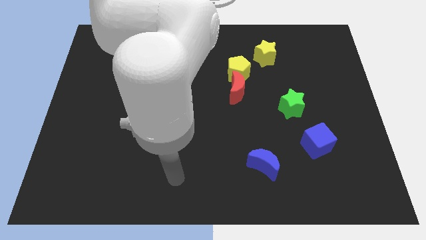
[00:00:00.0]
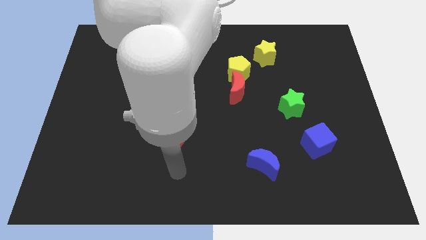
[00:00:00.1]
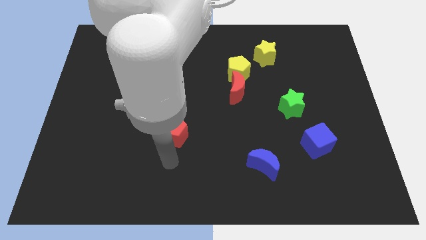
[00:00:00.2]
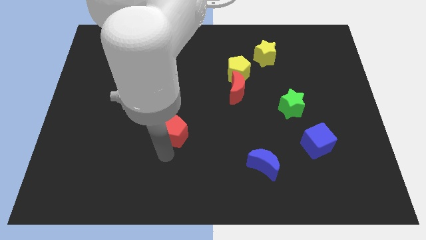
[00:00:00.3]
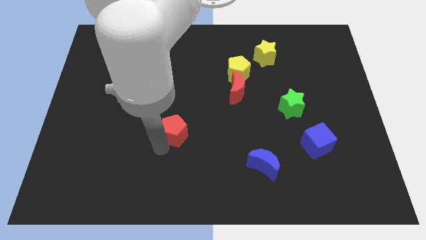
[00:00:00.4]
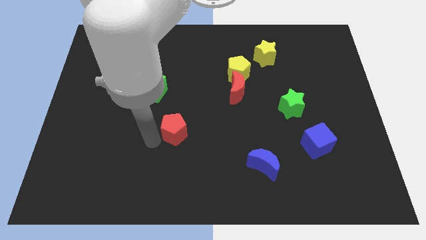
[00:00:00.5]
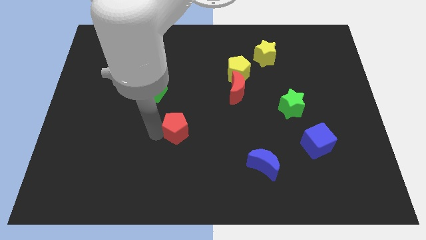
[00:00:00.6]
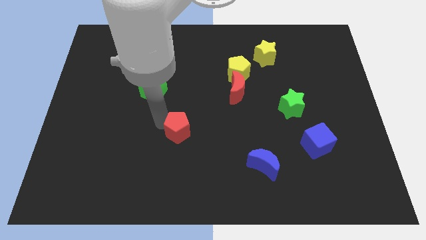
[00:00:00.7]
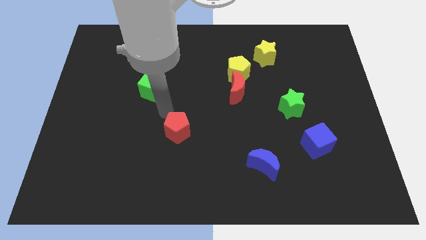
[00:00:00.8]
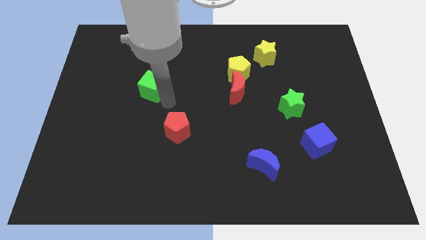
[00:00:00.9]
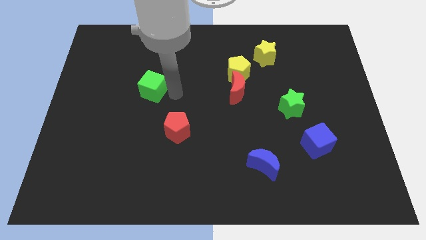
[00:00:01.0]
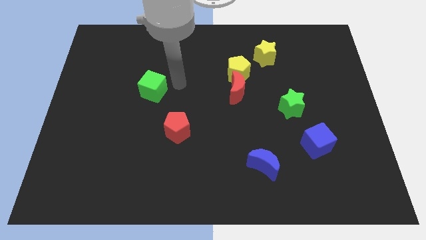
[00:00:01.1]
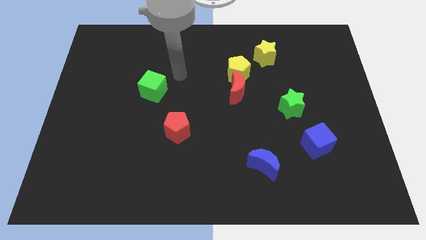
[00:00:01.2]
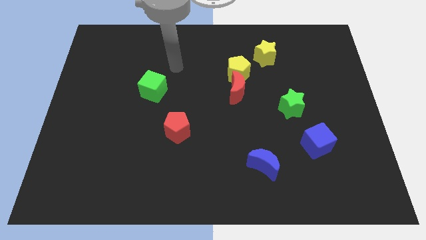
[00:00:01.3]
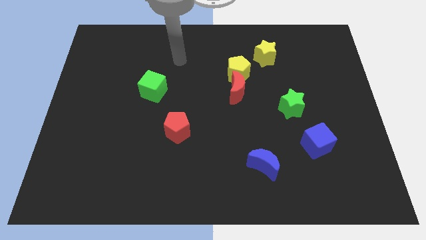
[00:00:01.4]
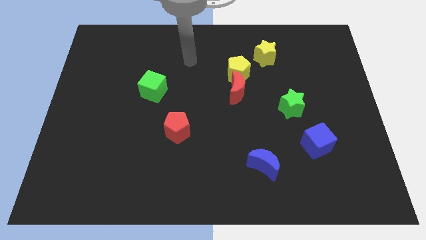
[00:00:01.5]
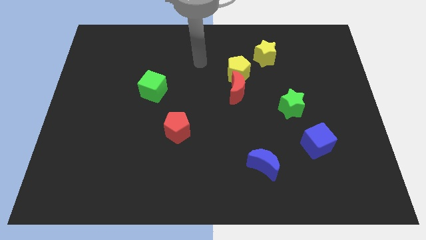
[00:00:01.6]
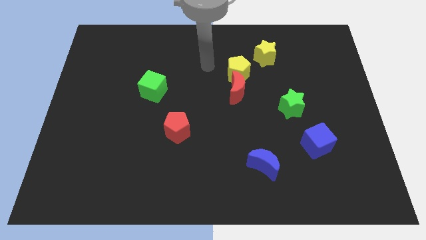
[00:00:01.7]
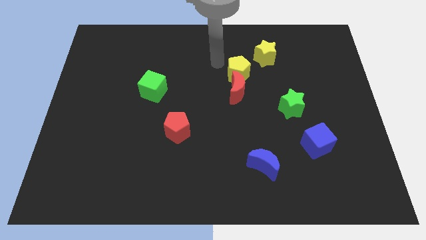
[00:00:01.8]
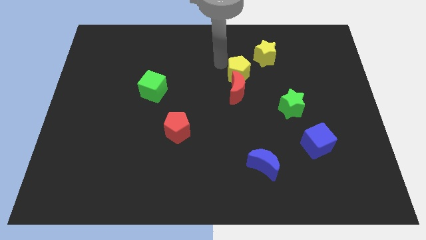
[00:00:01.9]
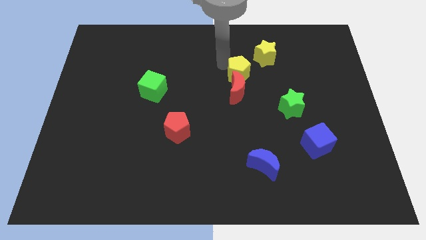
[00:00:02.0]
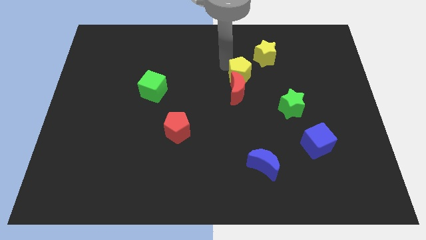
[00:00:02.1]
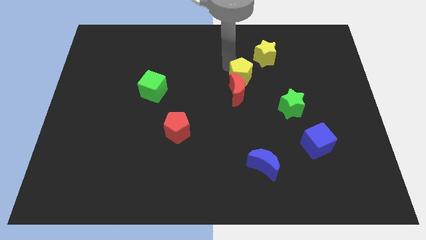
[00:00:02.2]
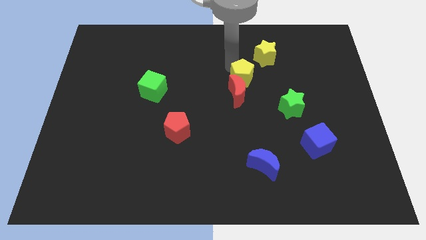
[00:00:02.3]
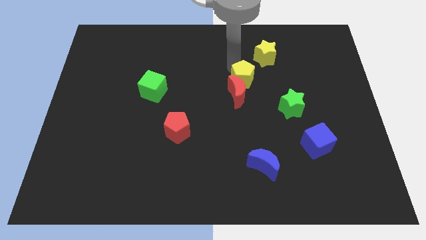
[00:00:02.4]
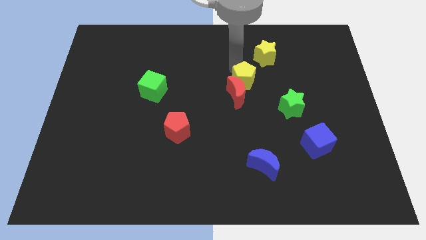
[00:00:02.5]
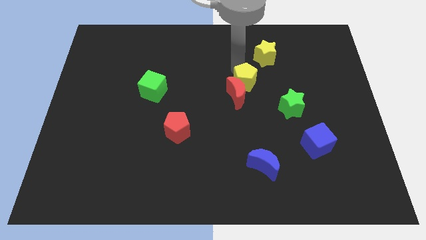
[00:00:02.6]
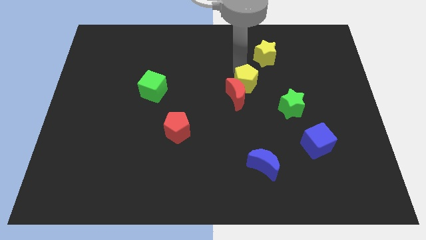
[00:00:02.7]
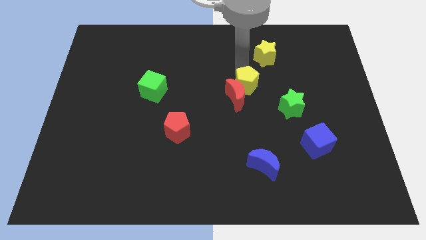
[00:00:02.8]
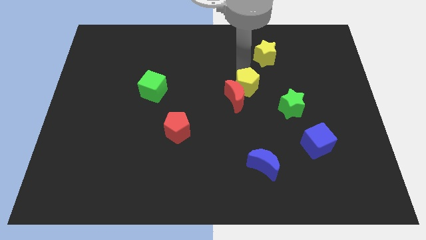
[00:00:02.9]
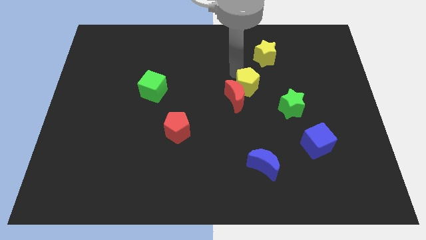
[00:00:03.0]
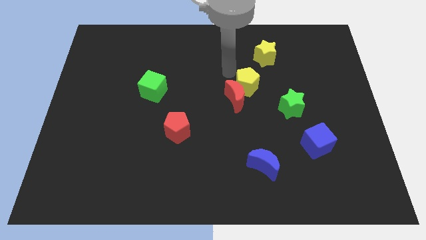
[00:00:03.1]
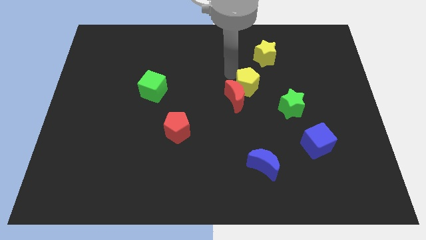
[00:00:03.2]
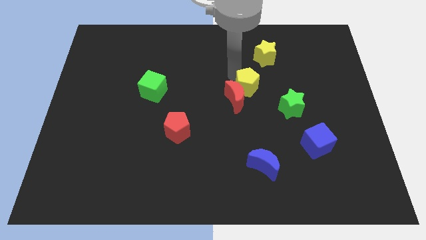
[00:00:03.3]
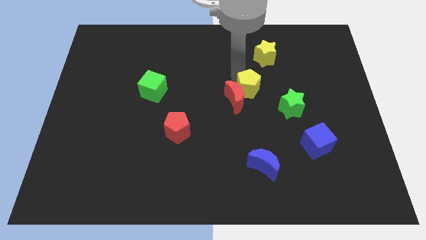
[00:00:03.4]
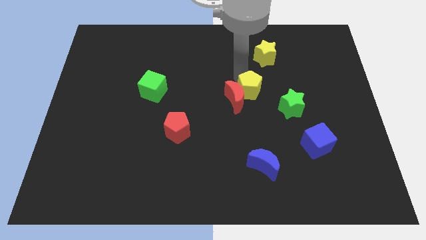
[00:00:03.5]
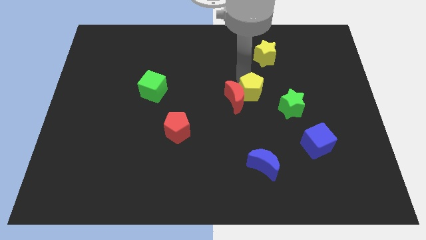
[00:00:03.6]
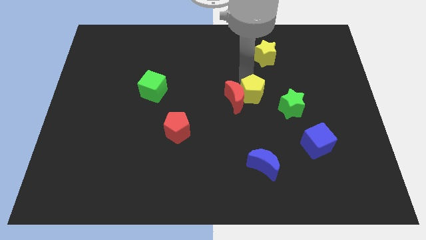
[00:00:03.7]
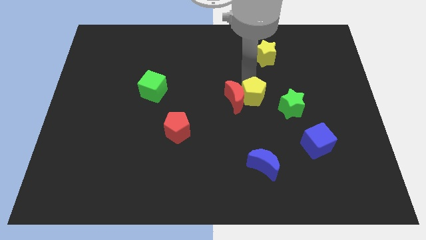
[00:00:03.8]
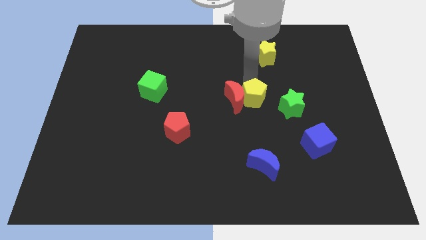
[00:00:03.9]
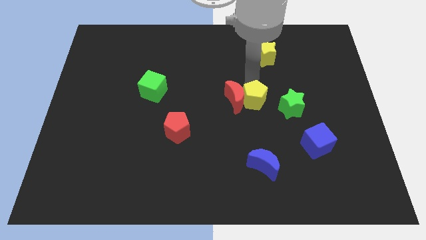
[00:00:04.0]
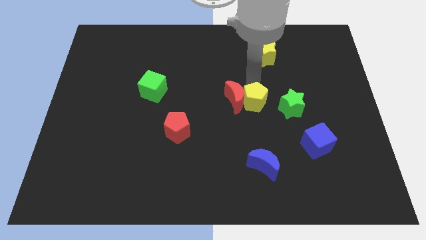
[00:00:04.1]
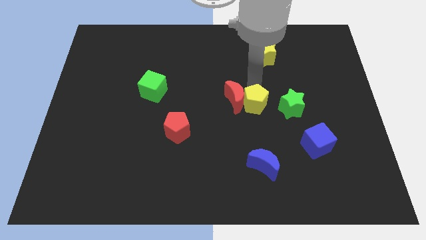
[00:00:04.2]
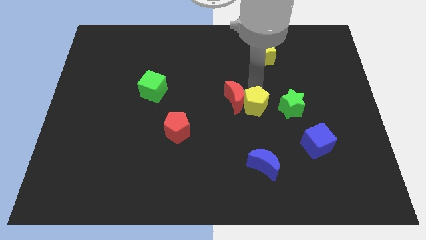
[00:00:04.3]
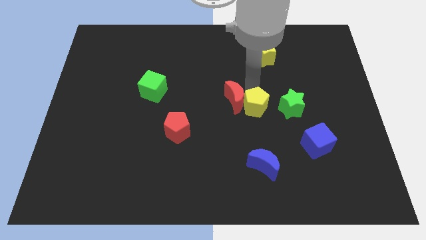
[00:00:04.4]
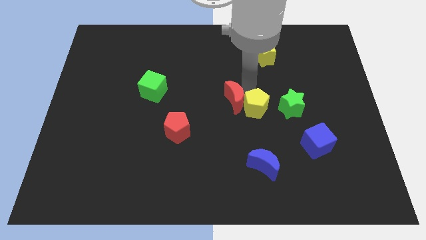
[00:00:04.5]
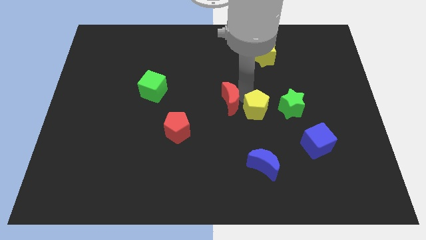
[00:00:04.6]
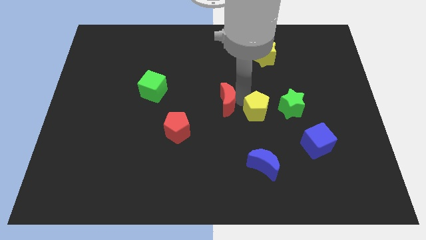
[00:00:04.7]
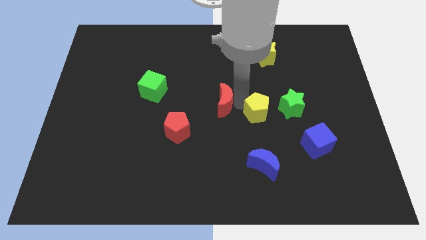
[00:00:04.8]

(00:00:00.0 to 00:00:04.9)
move the yellow pentagon diagonally down and to the left of the green star

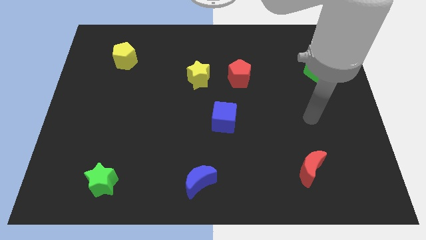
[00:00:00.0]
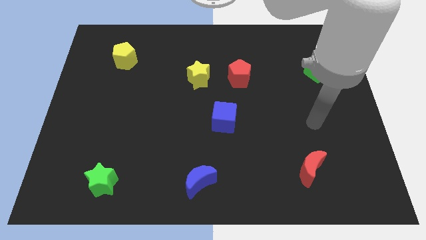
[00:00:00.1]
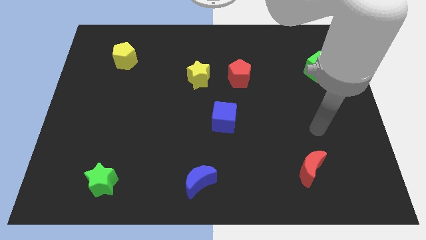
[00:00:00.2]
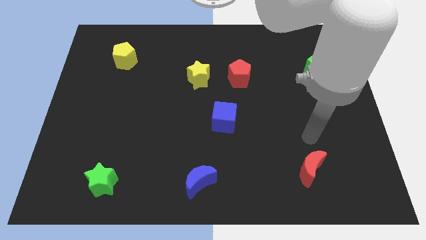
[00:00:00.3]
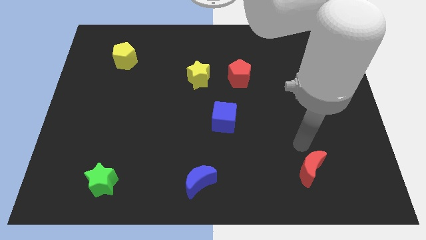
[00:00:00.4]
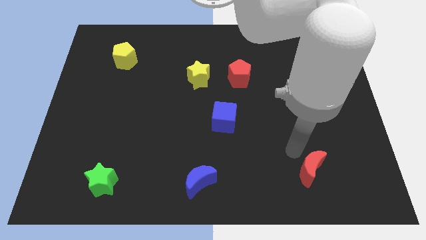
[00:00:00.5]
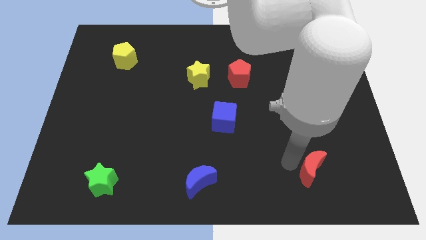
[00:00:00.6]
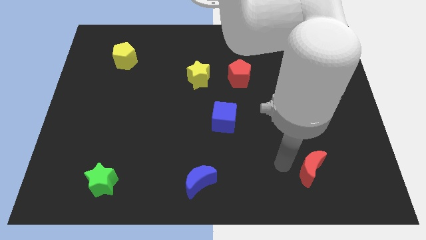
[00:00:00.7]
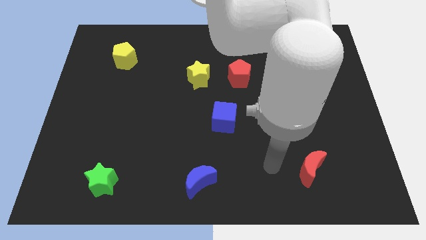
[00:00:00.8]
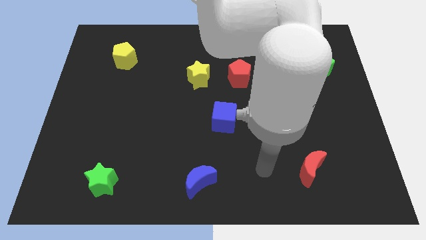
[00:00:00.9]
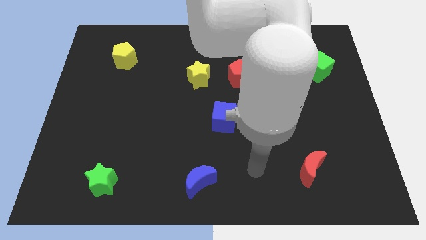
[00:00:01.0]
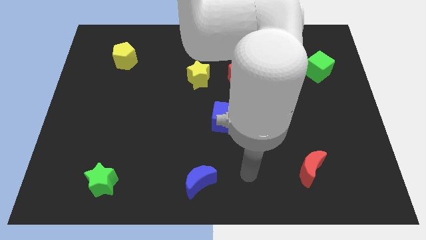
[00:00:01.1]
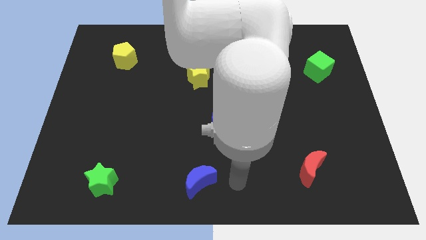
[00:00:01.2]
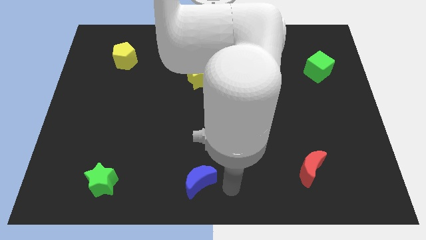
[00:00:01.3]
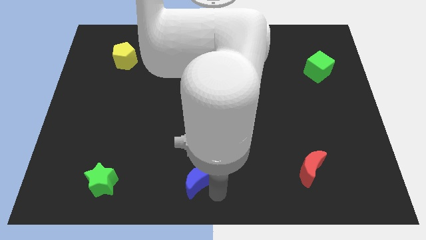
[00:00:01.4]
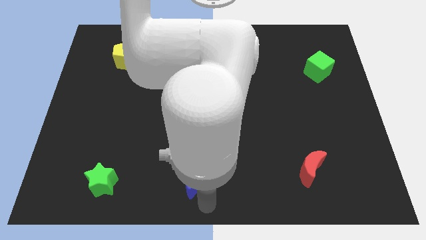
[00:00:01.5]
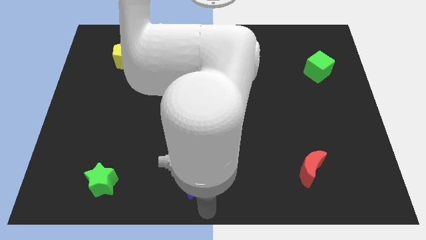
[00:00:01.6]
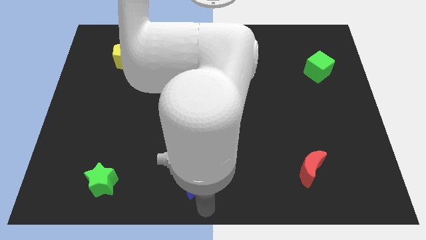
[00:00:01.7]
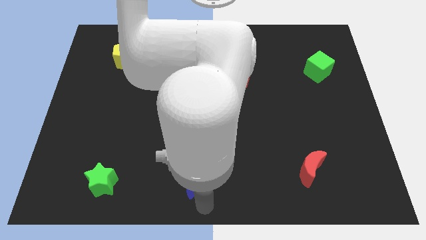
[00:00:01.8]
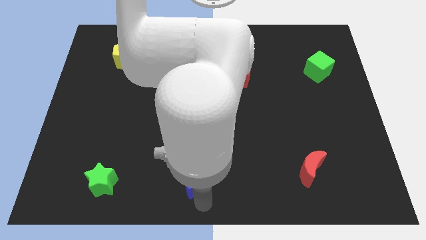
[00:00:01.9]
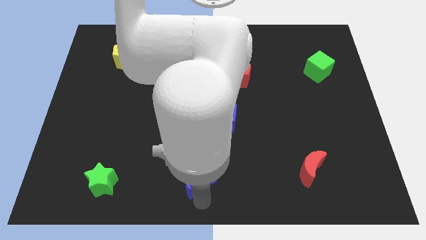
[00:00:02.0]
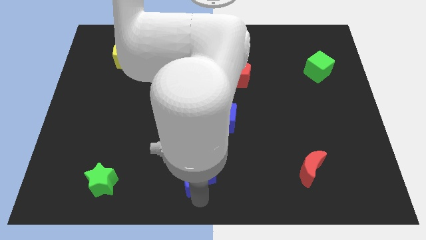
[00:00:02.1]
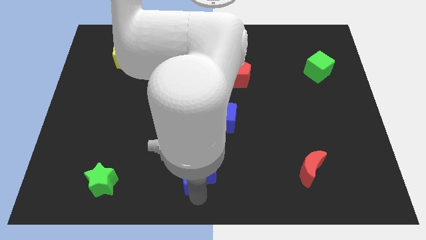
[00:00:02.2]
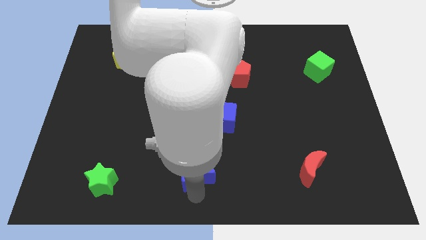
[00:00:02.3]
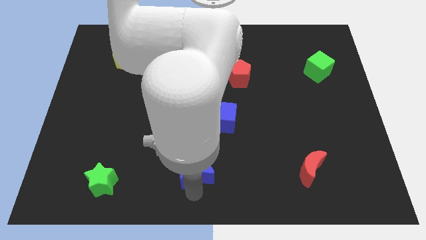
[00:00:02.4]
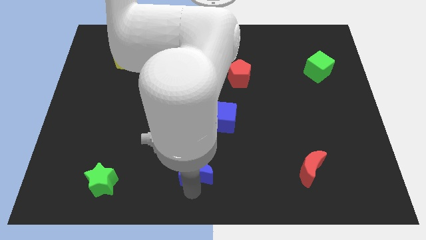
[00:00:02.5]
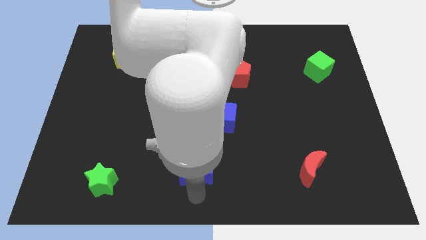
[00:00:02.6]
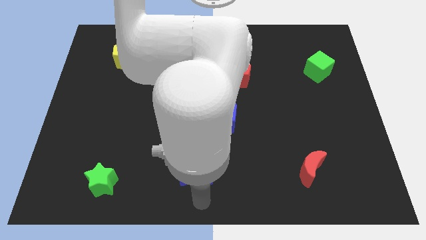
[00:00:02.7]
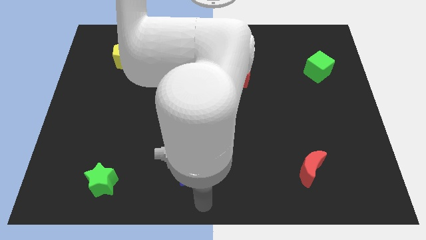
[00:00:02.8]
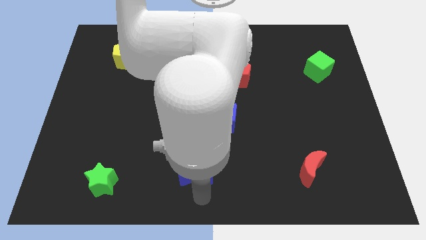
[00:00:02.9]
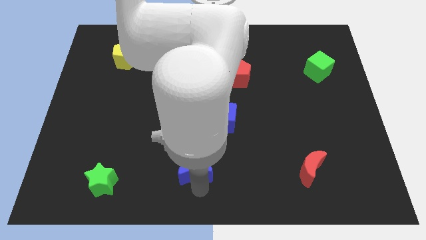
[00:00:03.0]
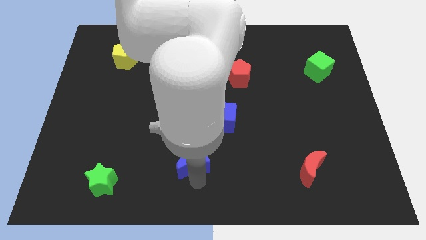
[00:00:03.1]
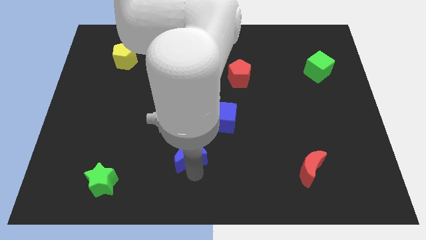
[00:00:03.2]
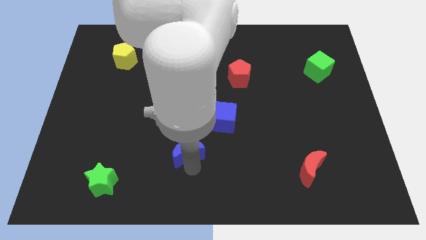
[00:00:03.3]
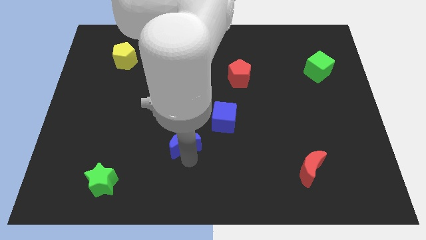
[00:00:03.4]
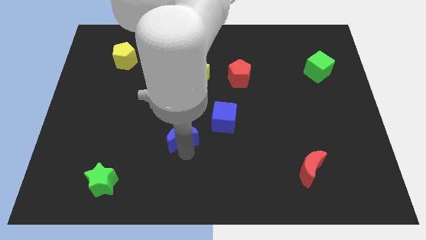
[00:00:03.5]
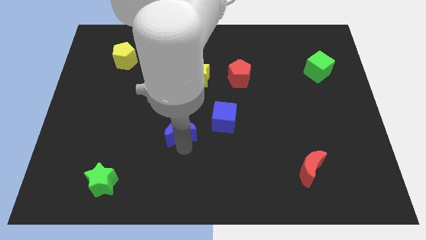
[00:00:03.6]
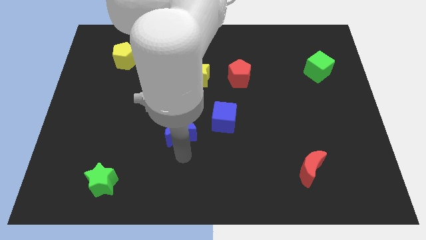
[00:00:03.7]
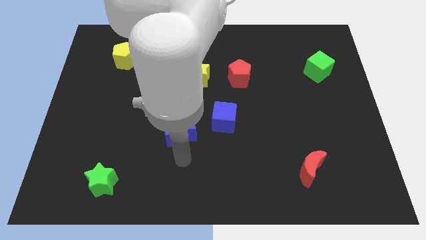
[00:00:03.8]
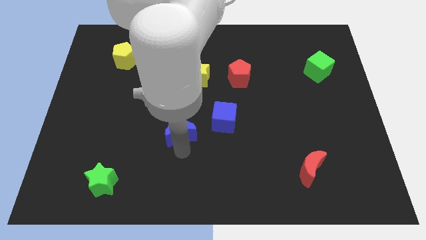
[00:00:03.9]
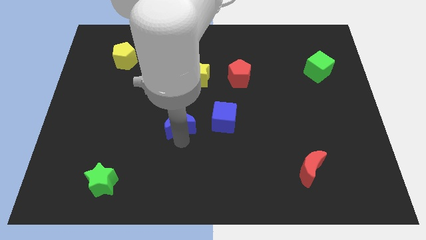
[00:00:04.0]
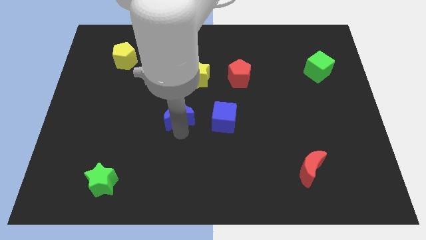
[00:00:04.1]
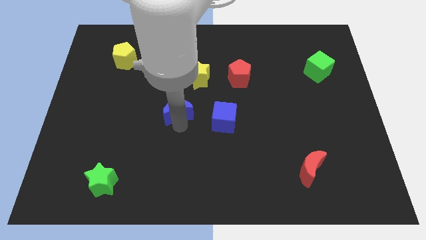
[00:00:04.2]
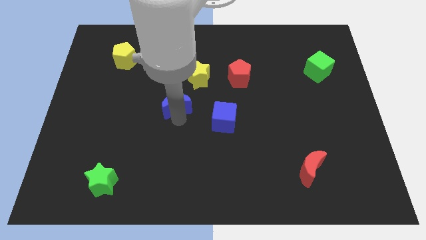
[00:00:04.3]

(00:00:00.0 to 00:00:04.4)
push the blue moon diagonally down and to the left of the yellow star
